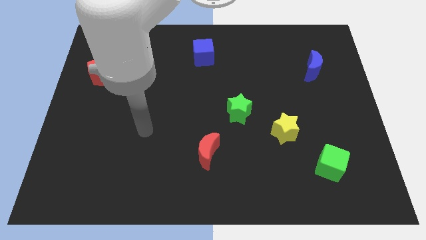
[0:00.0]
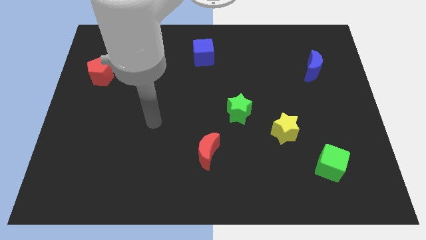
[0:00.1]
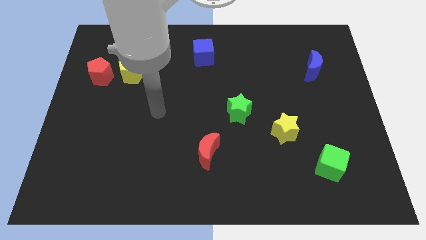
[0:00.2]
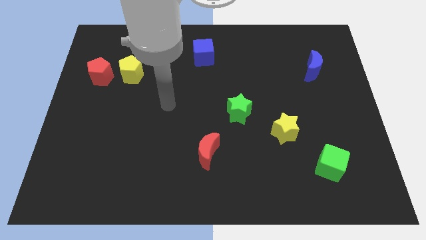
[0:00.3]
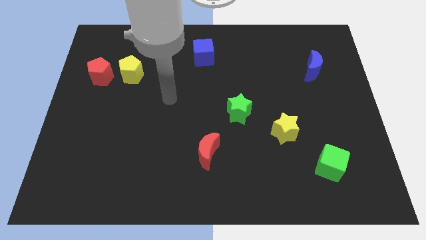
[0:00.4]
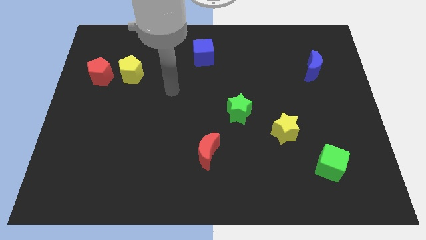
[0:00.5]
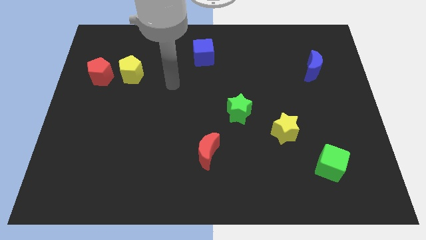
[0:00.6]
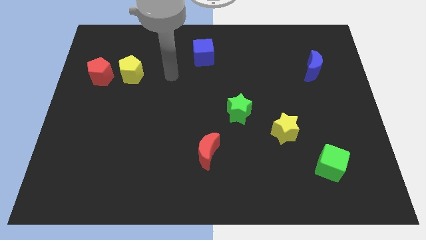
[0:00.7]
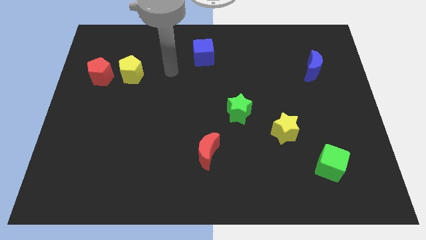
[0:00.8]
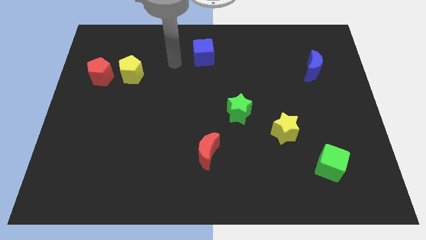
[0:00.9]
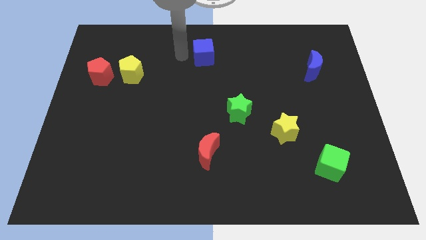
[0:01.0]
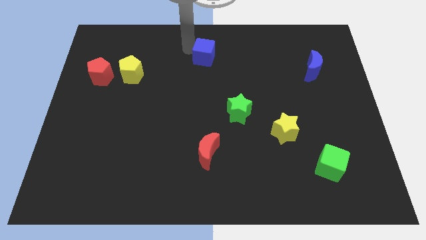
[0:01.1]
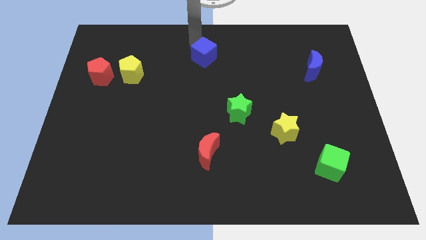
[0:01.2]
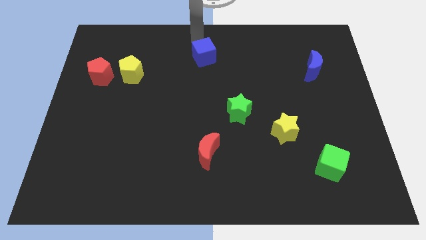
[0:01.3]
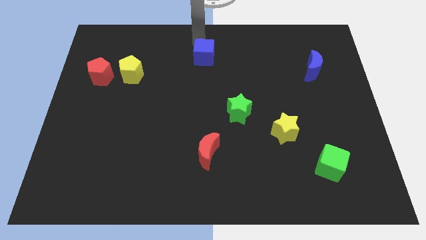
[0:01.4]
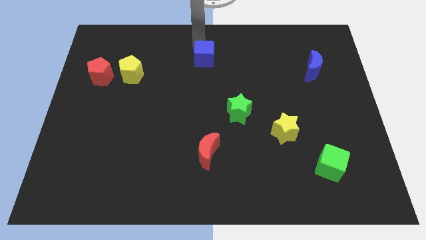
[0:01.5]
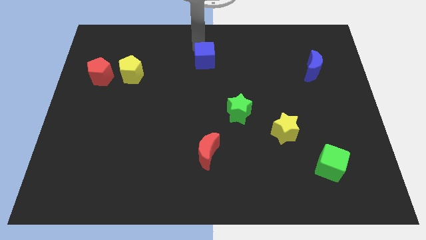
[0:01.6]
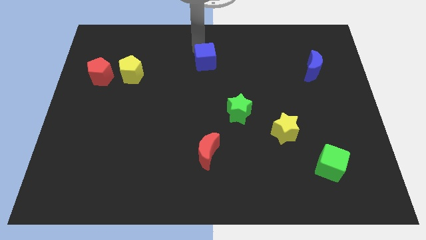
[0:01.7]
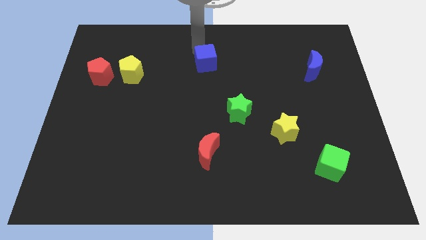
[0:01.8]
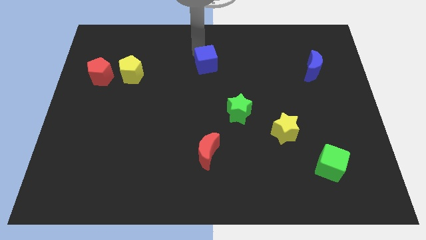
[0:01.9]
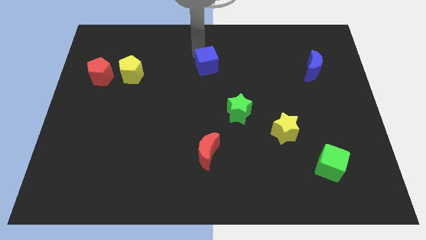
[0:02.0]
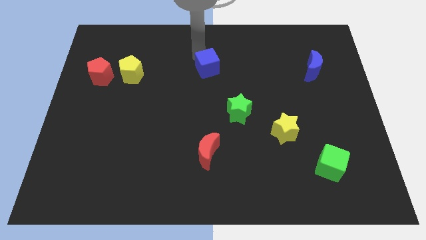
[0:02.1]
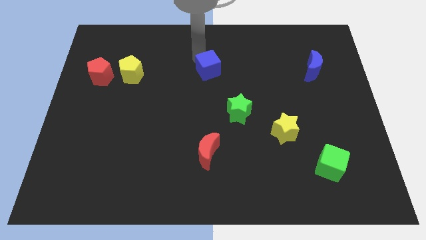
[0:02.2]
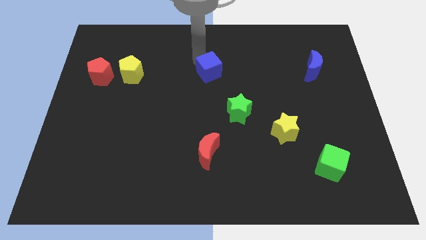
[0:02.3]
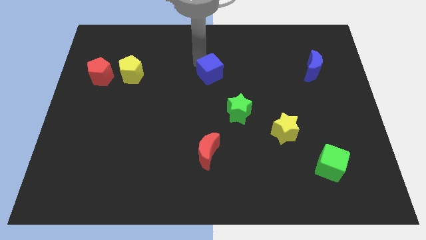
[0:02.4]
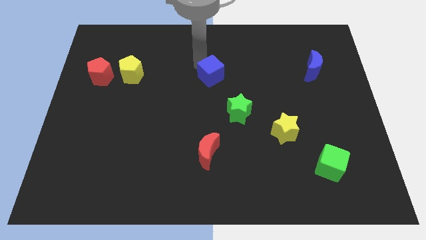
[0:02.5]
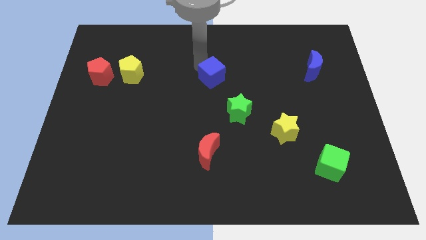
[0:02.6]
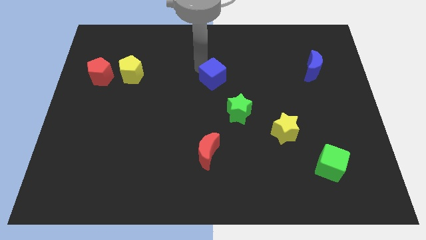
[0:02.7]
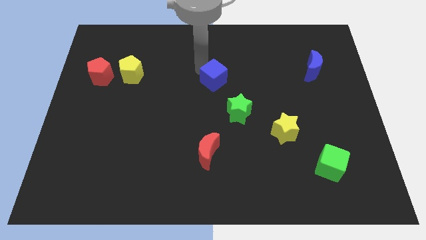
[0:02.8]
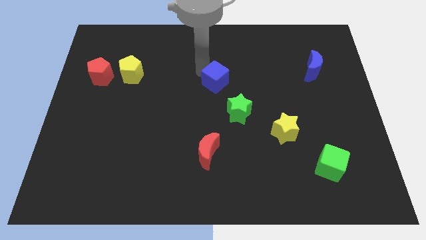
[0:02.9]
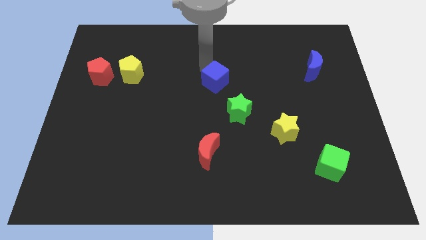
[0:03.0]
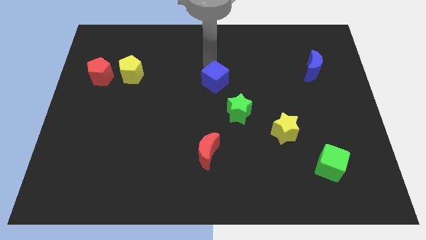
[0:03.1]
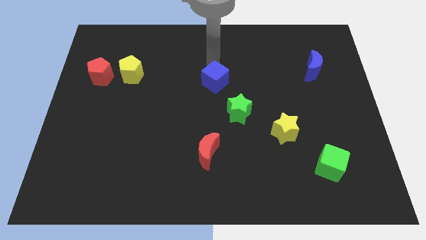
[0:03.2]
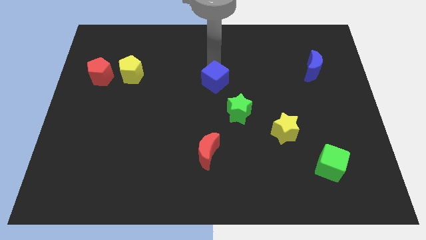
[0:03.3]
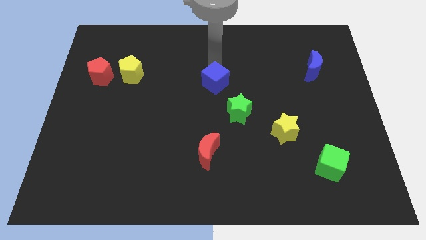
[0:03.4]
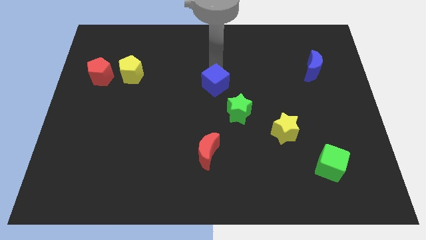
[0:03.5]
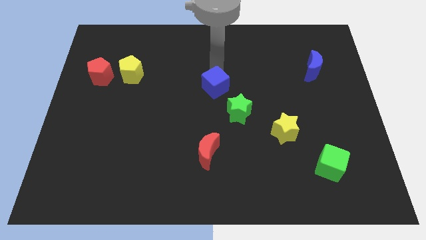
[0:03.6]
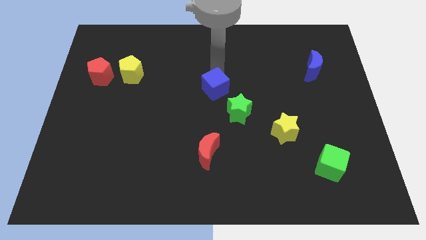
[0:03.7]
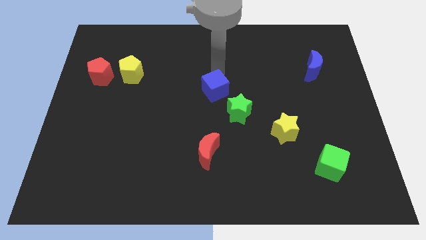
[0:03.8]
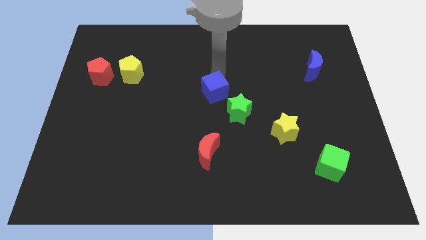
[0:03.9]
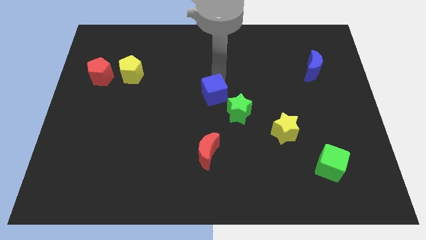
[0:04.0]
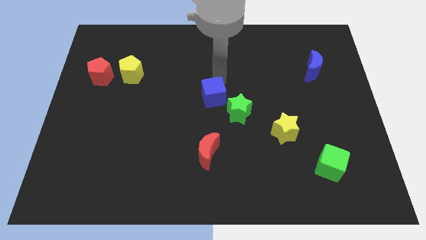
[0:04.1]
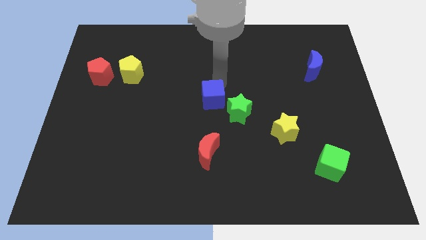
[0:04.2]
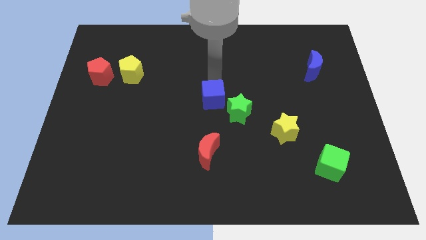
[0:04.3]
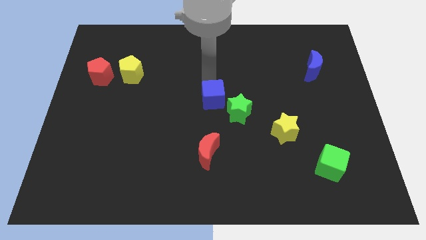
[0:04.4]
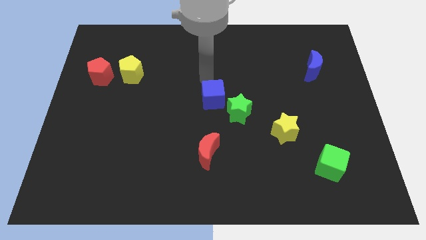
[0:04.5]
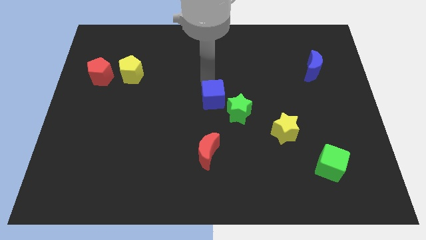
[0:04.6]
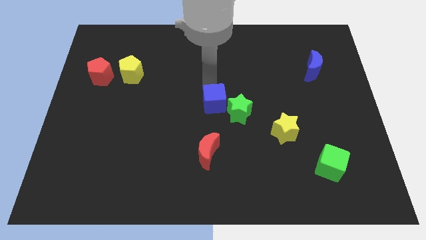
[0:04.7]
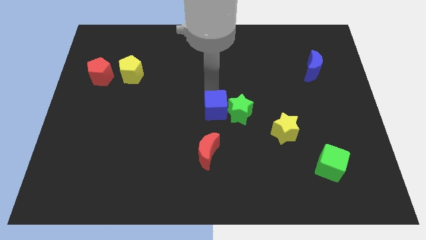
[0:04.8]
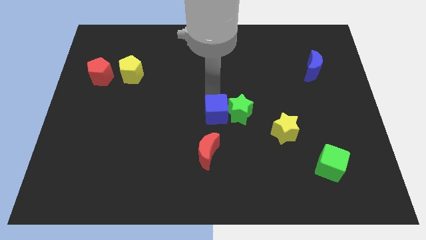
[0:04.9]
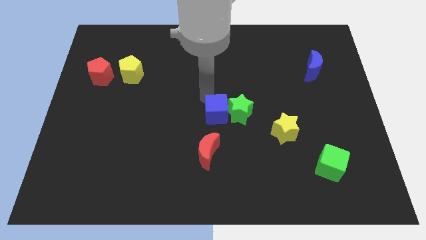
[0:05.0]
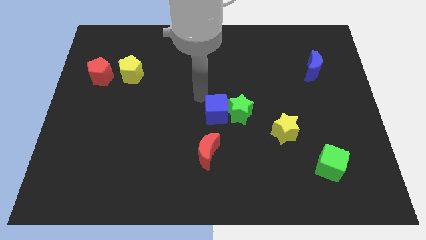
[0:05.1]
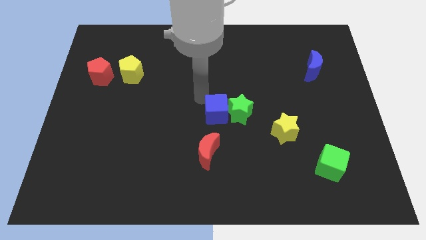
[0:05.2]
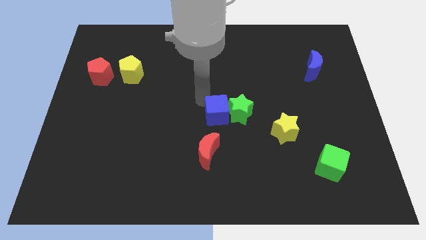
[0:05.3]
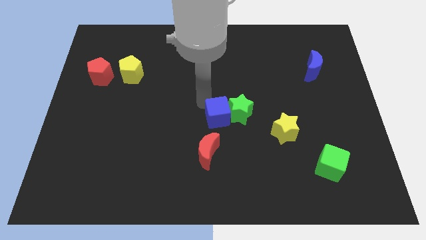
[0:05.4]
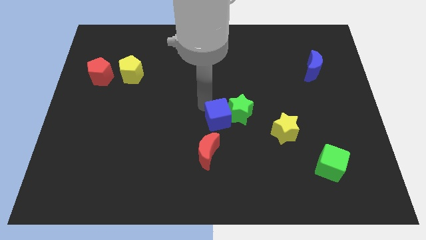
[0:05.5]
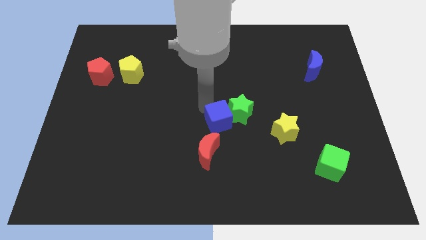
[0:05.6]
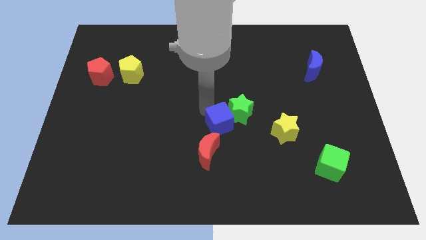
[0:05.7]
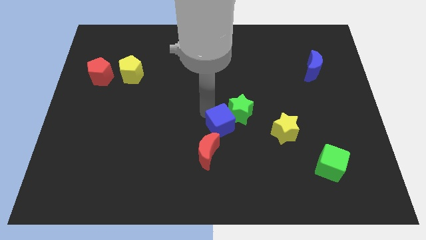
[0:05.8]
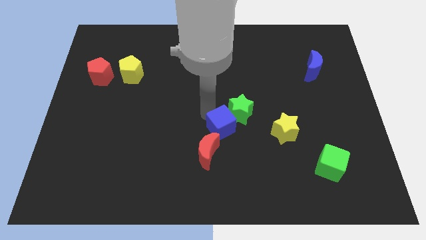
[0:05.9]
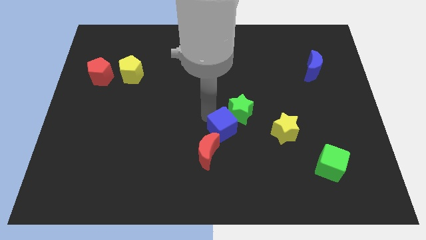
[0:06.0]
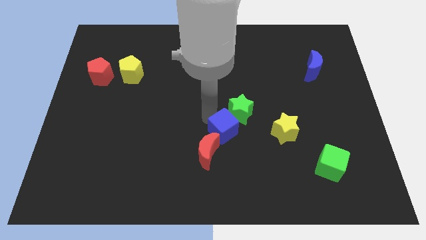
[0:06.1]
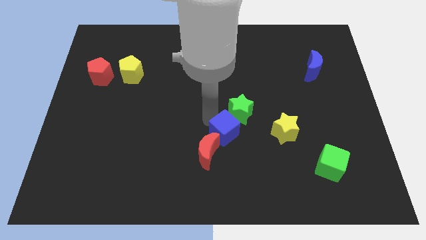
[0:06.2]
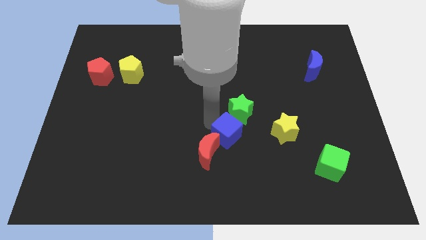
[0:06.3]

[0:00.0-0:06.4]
push the blue cube to the right of the red moon

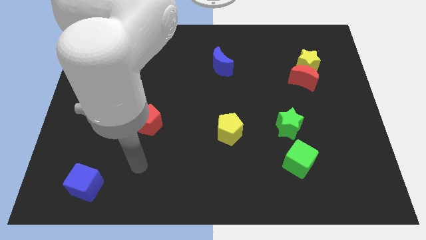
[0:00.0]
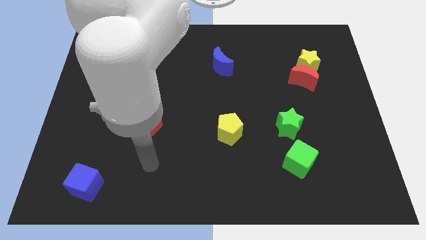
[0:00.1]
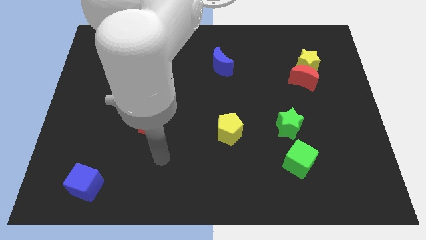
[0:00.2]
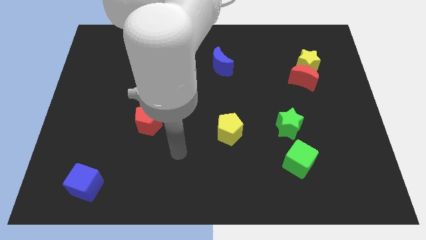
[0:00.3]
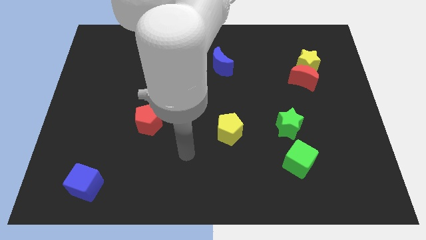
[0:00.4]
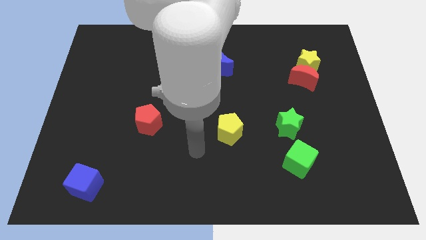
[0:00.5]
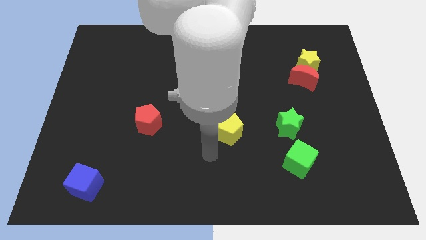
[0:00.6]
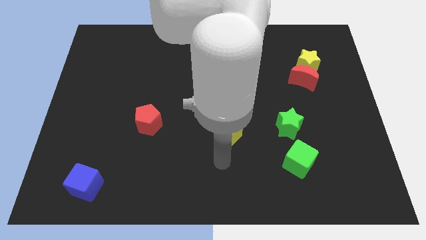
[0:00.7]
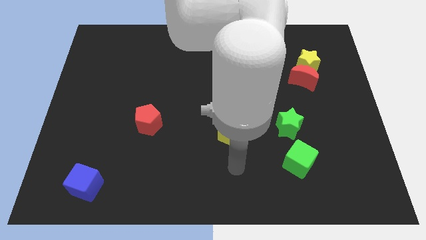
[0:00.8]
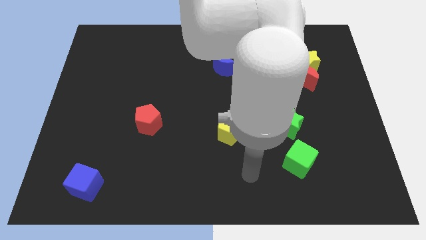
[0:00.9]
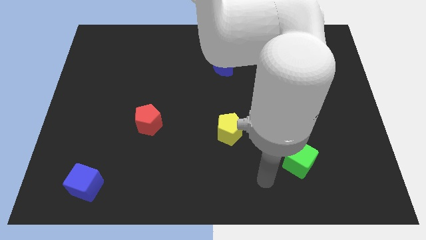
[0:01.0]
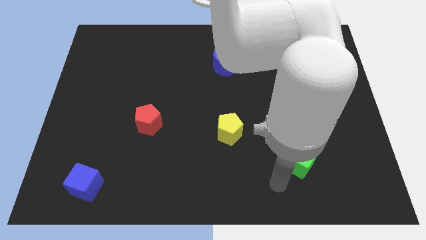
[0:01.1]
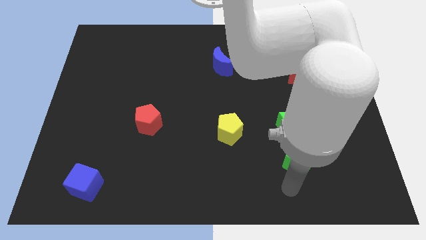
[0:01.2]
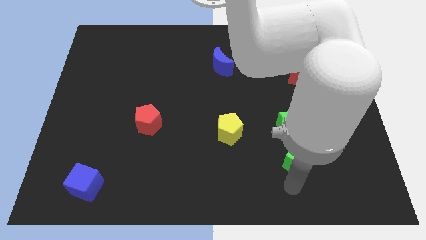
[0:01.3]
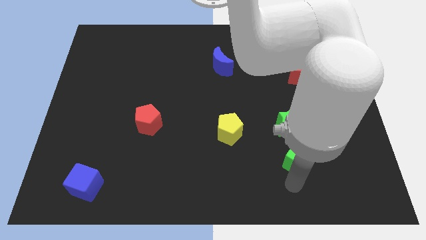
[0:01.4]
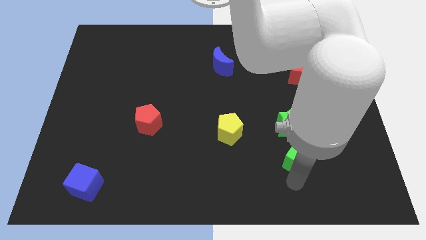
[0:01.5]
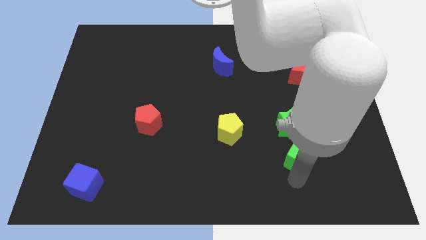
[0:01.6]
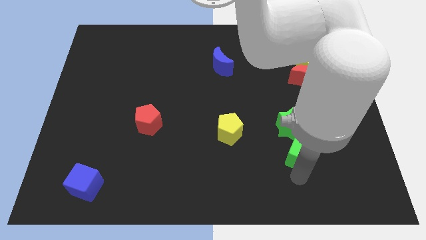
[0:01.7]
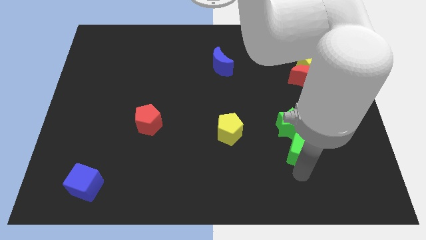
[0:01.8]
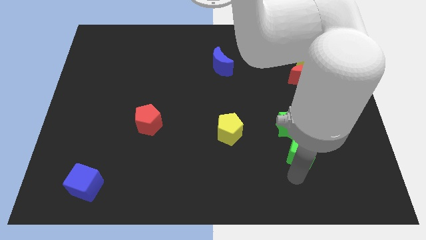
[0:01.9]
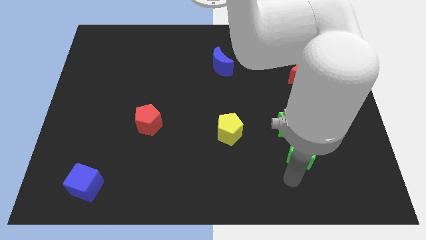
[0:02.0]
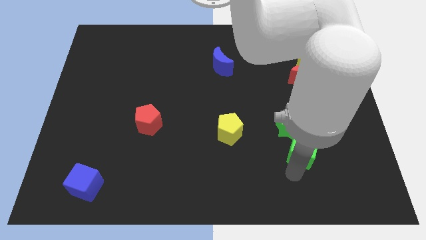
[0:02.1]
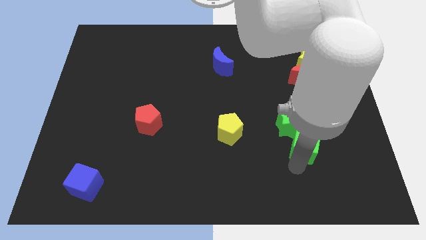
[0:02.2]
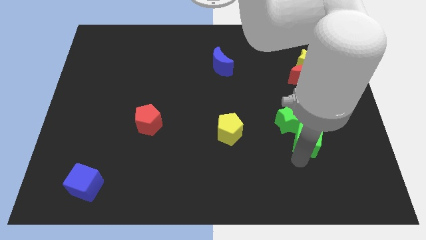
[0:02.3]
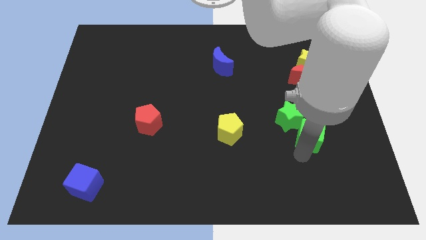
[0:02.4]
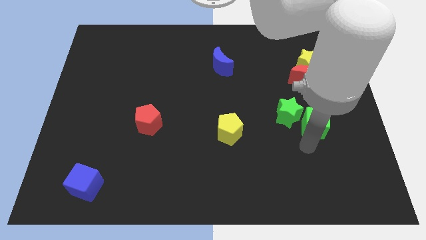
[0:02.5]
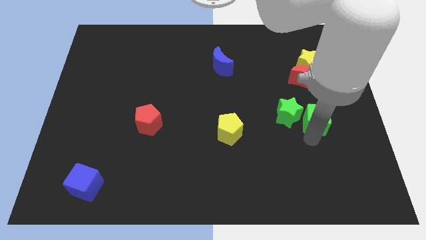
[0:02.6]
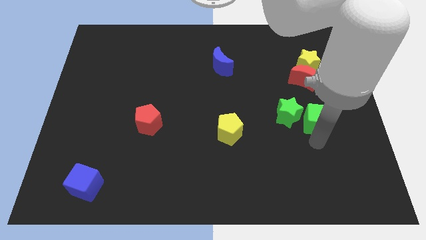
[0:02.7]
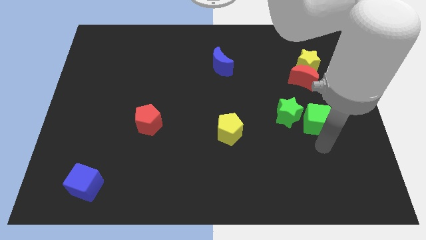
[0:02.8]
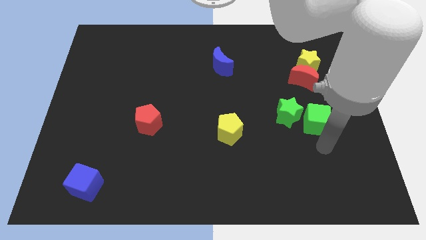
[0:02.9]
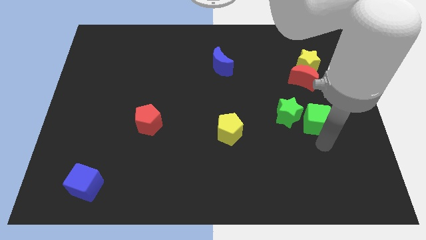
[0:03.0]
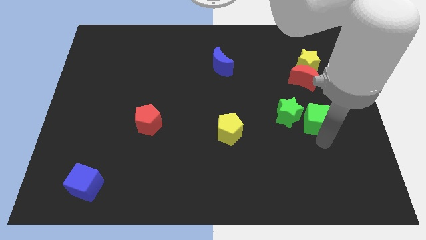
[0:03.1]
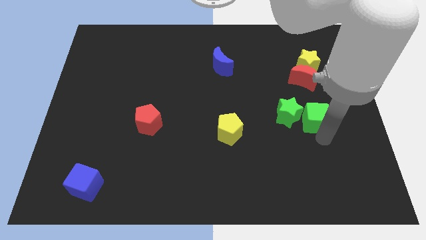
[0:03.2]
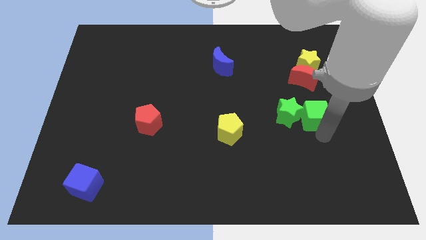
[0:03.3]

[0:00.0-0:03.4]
slide the green cube diagonally up and to the right of the green star
